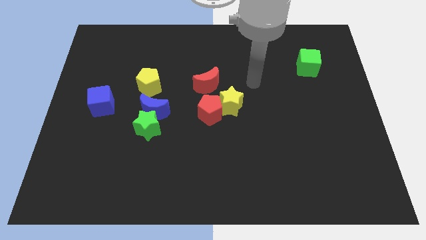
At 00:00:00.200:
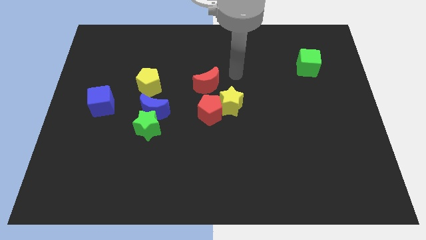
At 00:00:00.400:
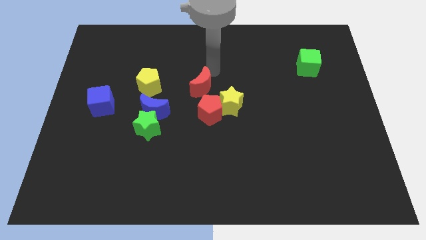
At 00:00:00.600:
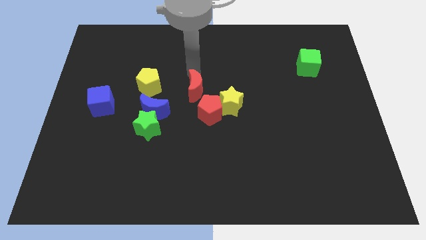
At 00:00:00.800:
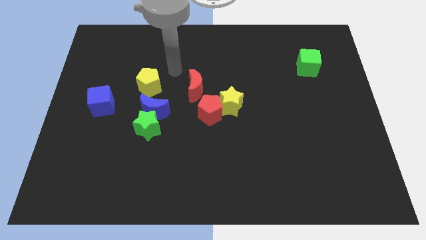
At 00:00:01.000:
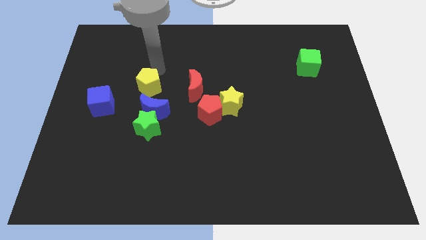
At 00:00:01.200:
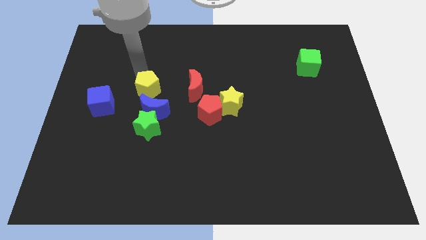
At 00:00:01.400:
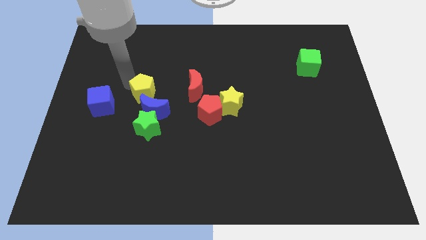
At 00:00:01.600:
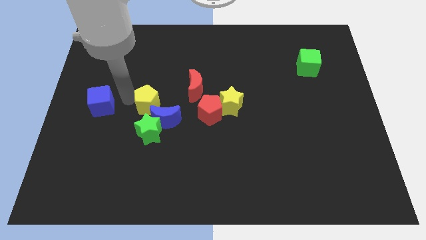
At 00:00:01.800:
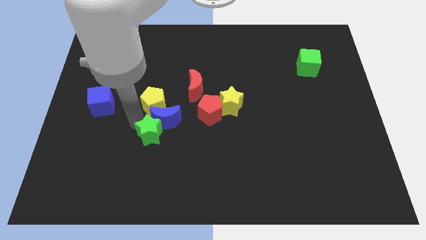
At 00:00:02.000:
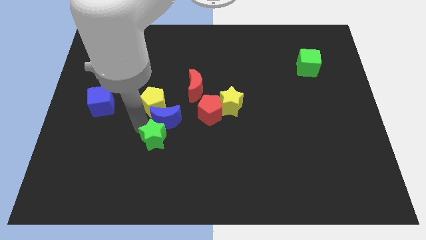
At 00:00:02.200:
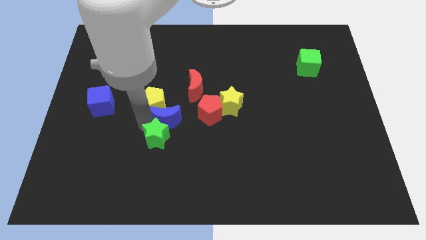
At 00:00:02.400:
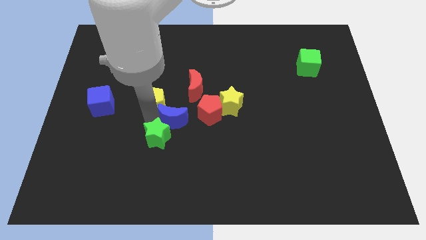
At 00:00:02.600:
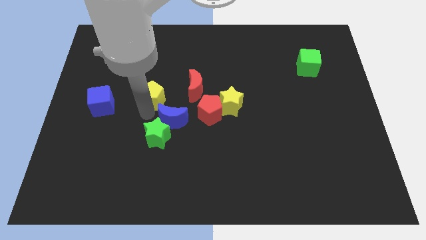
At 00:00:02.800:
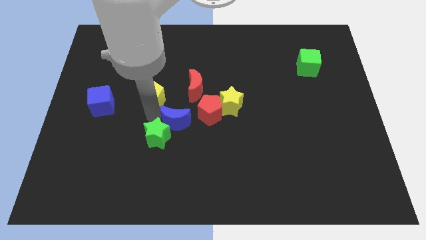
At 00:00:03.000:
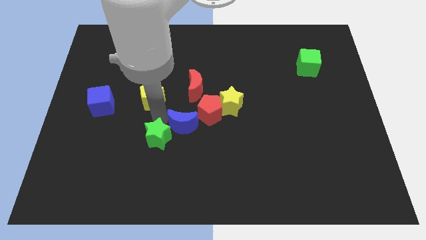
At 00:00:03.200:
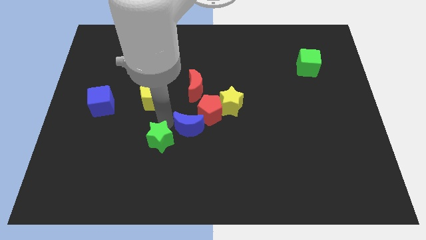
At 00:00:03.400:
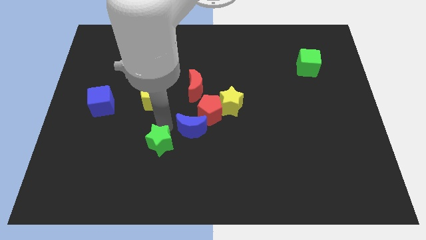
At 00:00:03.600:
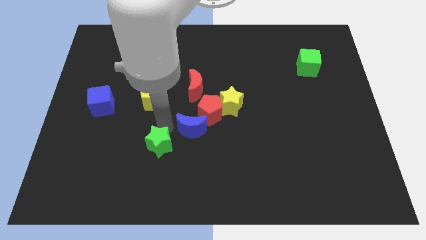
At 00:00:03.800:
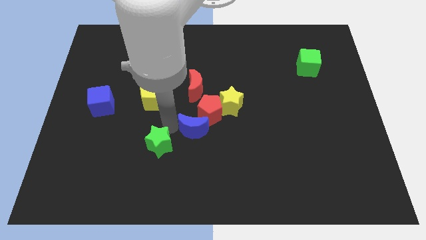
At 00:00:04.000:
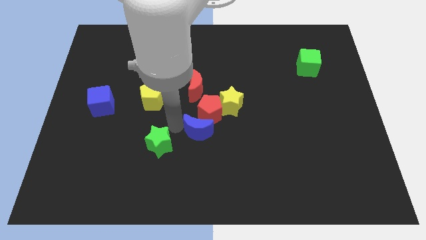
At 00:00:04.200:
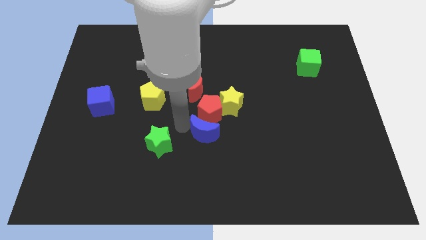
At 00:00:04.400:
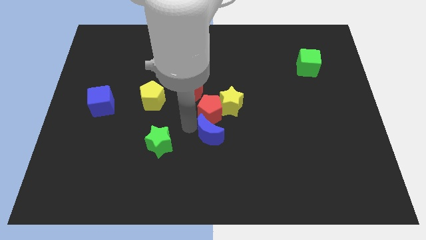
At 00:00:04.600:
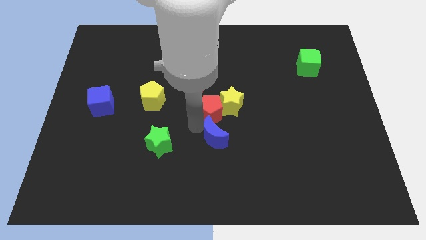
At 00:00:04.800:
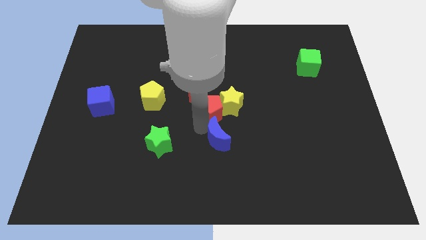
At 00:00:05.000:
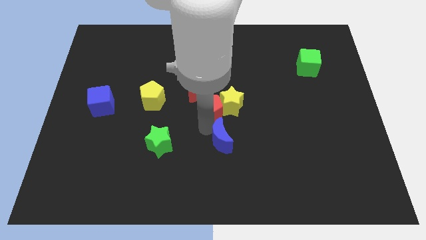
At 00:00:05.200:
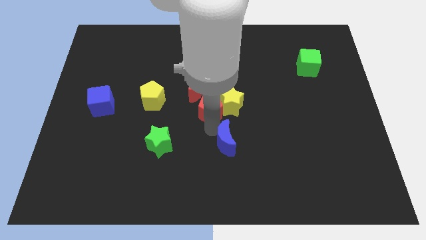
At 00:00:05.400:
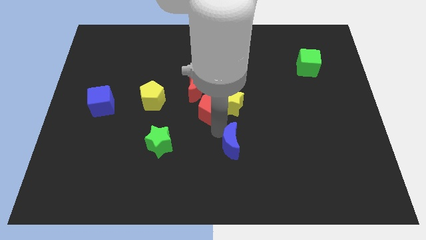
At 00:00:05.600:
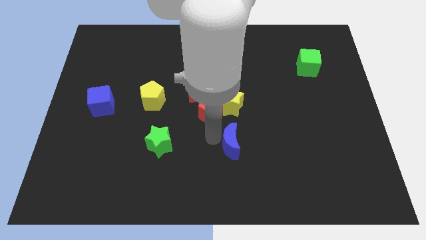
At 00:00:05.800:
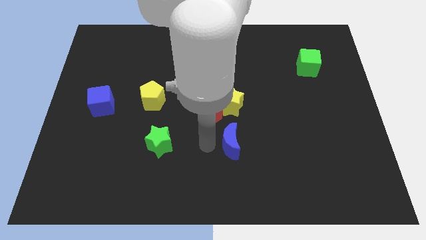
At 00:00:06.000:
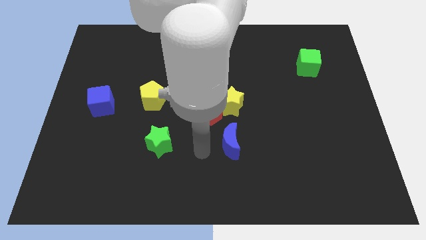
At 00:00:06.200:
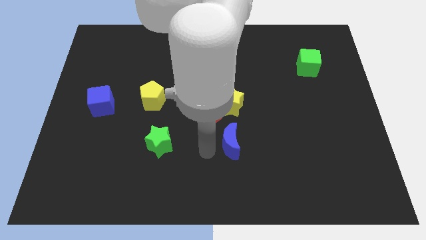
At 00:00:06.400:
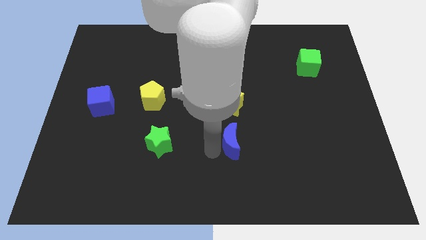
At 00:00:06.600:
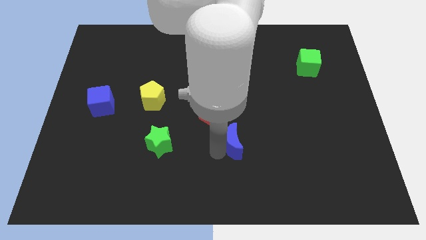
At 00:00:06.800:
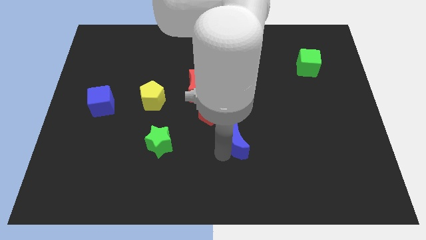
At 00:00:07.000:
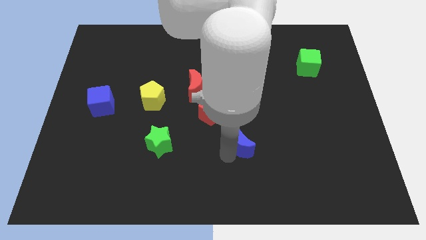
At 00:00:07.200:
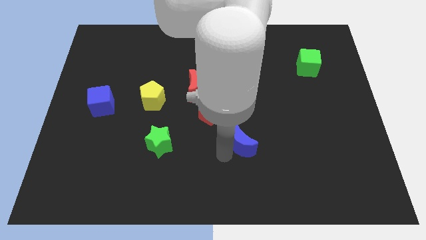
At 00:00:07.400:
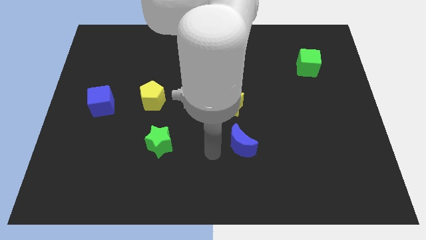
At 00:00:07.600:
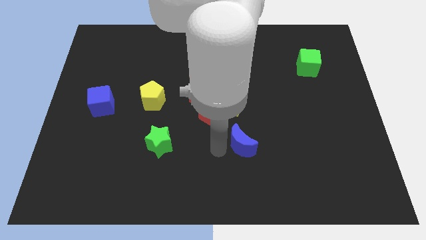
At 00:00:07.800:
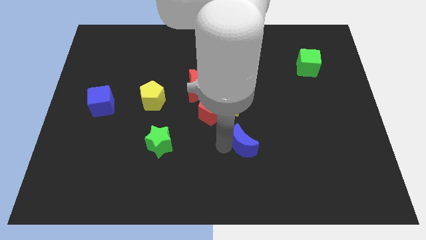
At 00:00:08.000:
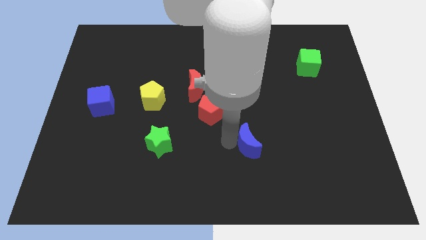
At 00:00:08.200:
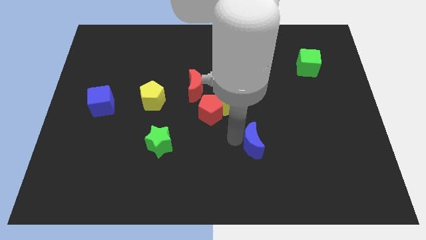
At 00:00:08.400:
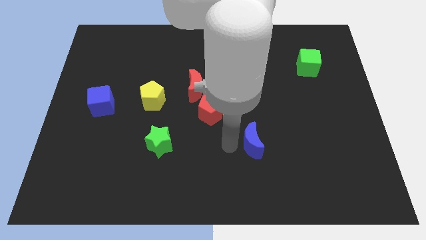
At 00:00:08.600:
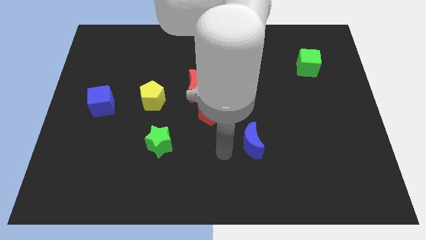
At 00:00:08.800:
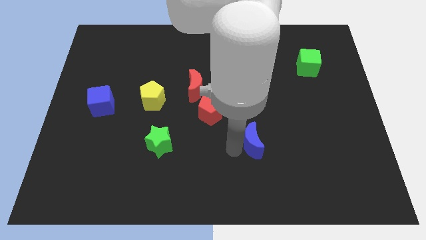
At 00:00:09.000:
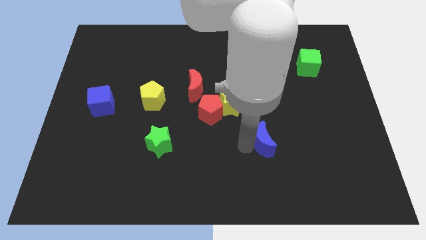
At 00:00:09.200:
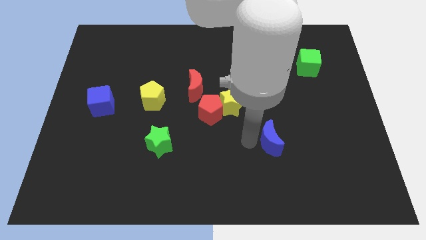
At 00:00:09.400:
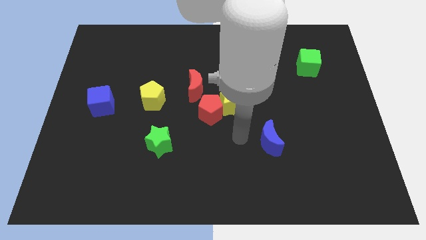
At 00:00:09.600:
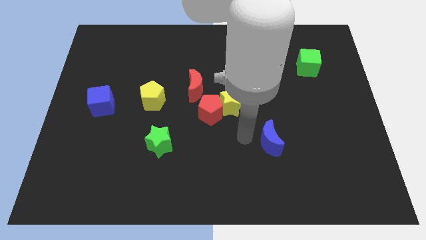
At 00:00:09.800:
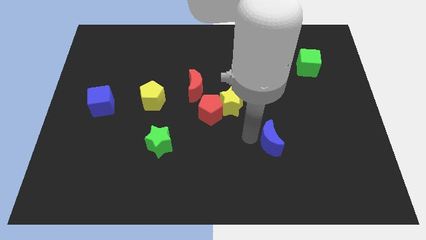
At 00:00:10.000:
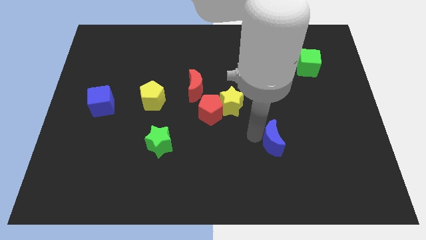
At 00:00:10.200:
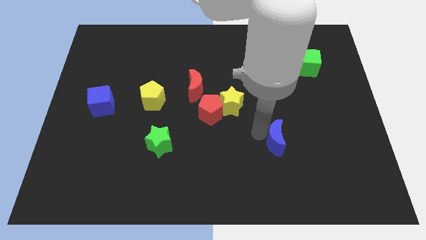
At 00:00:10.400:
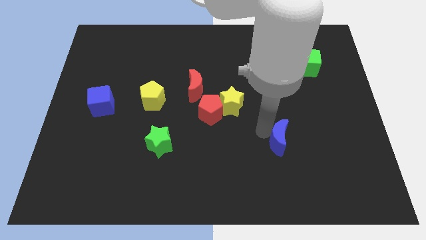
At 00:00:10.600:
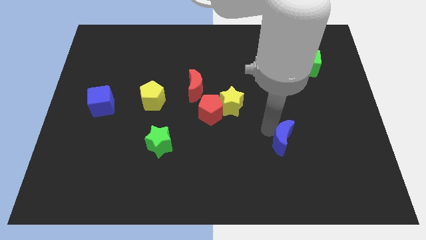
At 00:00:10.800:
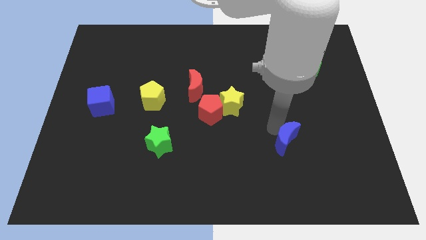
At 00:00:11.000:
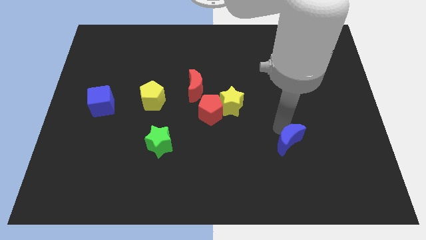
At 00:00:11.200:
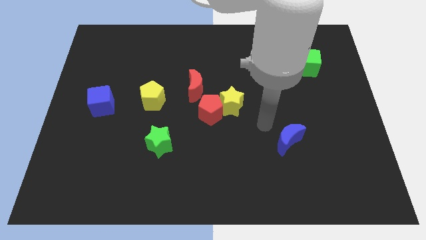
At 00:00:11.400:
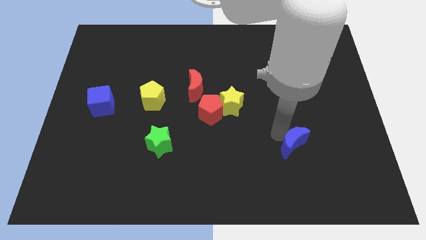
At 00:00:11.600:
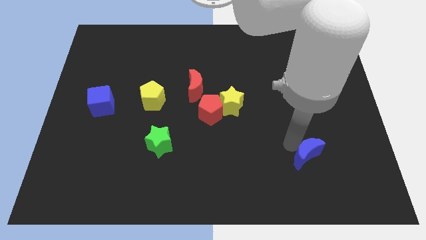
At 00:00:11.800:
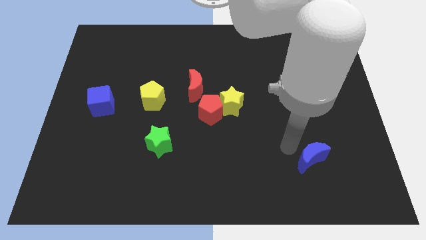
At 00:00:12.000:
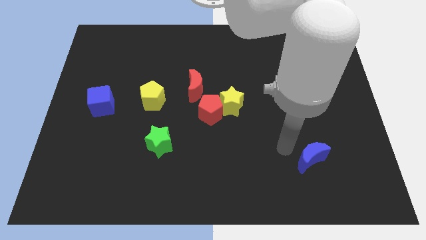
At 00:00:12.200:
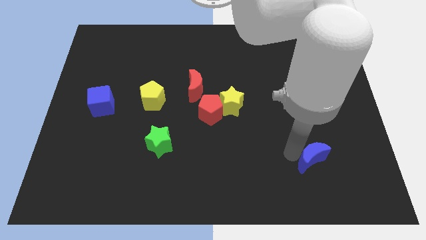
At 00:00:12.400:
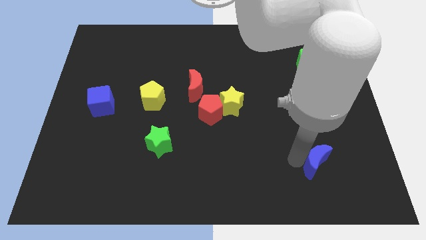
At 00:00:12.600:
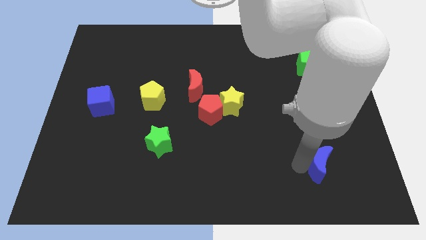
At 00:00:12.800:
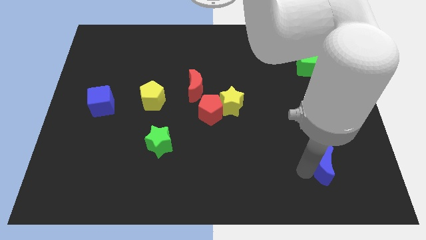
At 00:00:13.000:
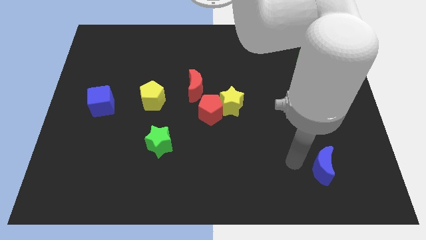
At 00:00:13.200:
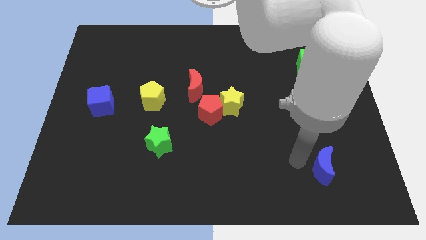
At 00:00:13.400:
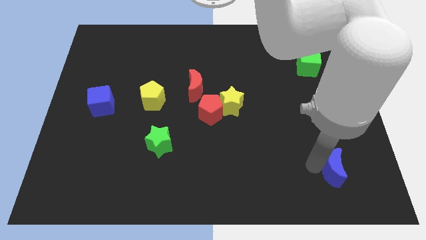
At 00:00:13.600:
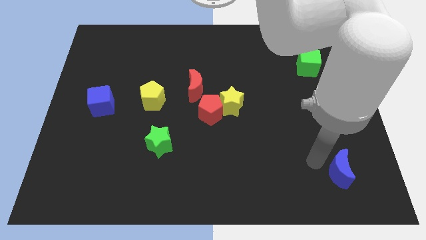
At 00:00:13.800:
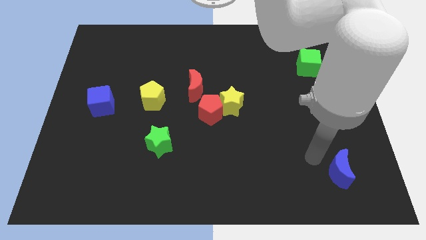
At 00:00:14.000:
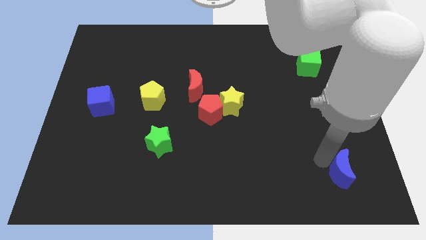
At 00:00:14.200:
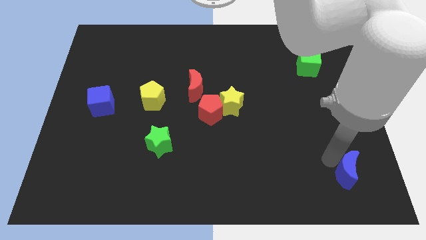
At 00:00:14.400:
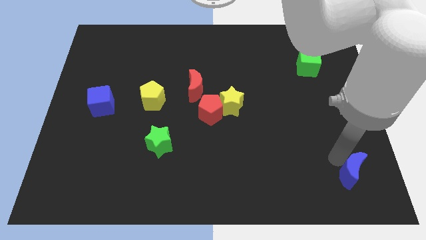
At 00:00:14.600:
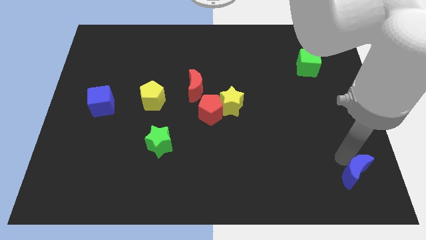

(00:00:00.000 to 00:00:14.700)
slide the blue moon to the lower right corner
